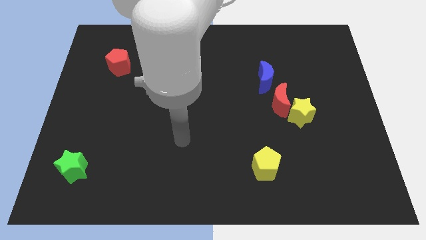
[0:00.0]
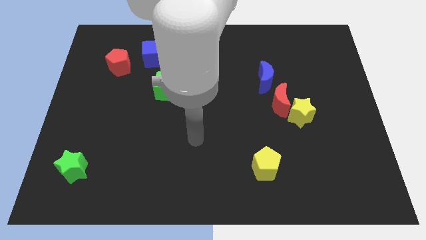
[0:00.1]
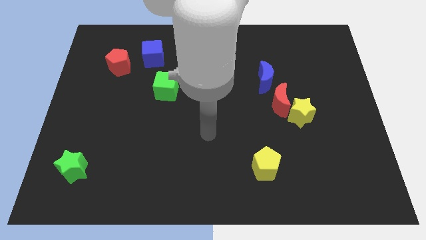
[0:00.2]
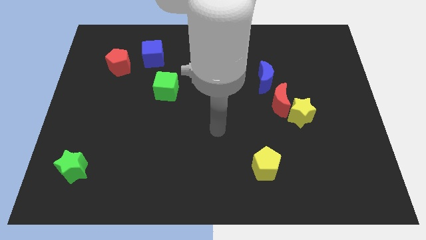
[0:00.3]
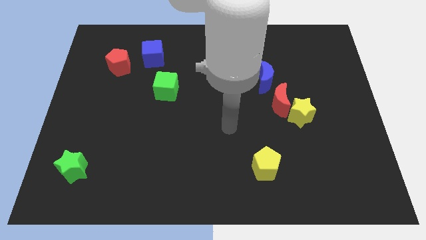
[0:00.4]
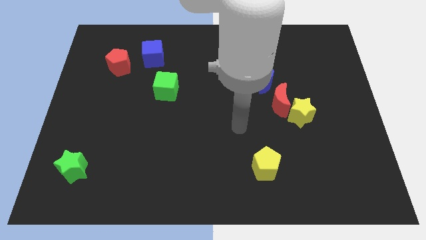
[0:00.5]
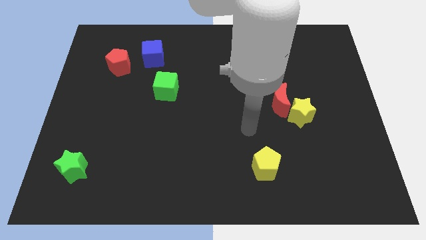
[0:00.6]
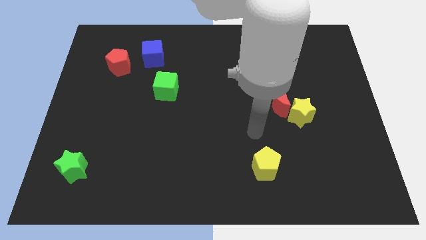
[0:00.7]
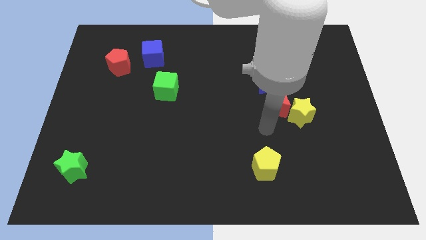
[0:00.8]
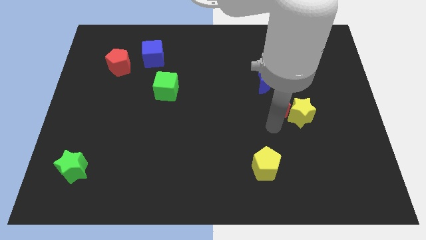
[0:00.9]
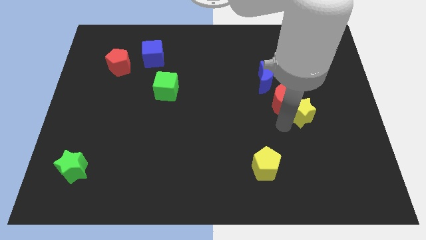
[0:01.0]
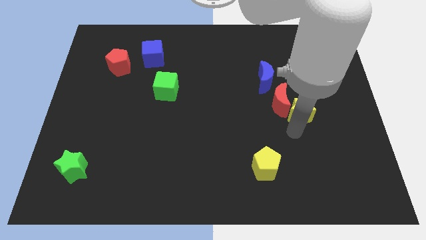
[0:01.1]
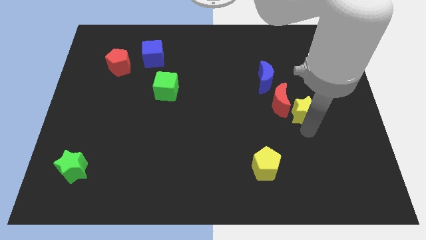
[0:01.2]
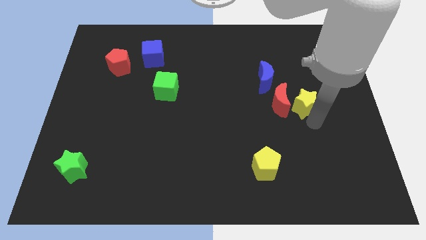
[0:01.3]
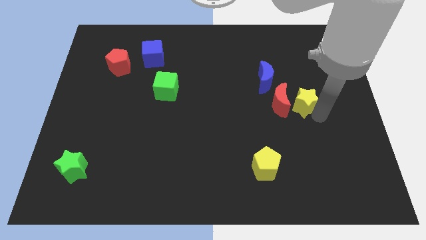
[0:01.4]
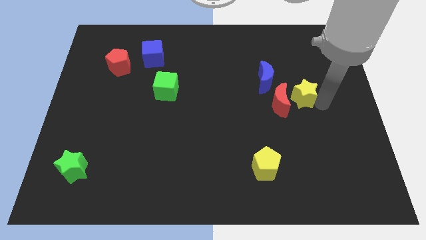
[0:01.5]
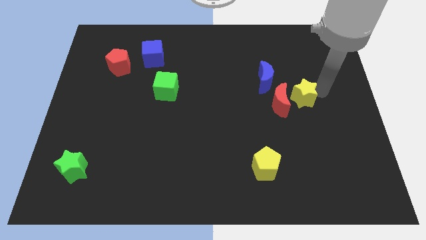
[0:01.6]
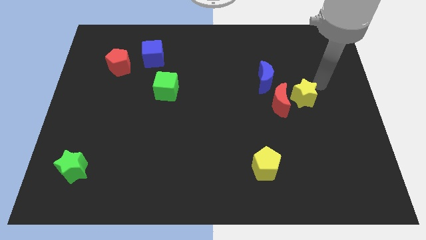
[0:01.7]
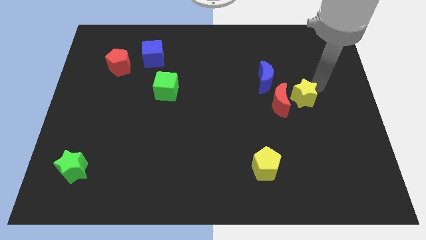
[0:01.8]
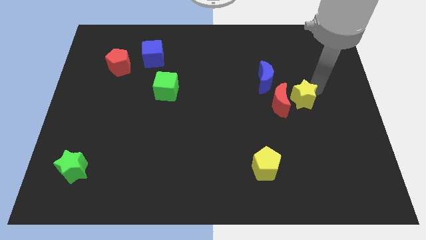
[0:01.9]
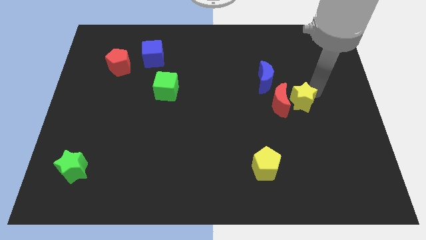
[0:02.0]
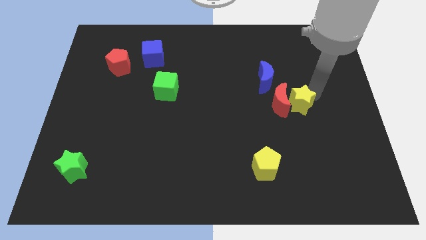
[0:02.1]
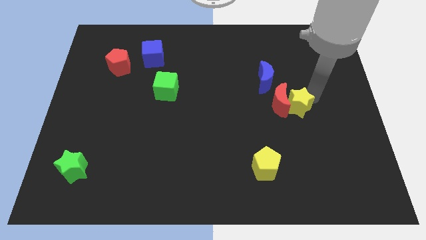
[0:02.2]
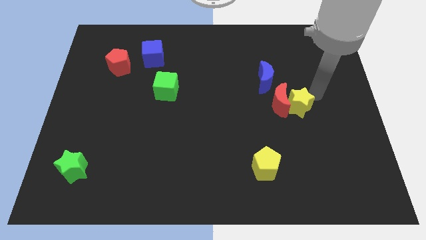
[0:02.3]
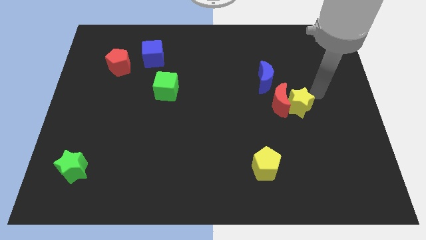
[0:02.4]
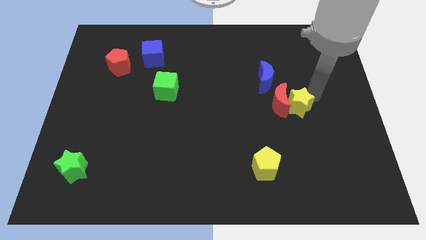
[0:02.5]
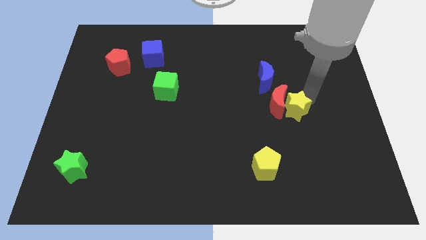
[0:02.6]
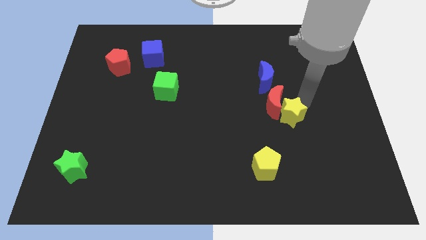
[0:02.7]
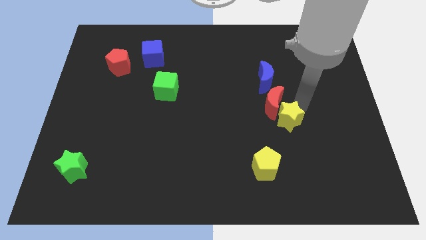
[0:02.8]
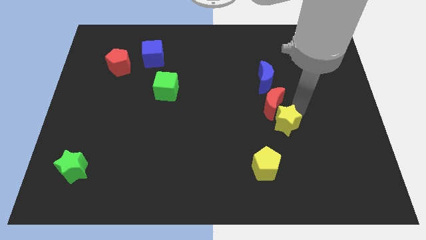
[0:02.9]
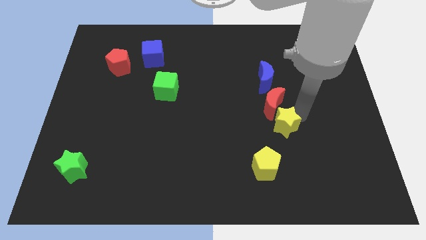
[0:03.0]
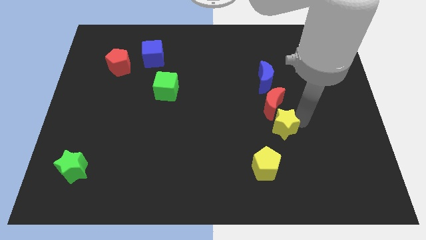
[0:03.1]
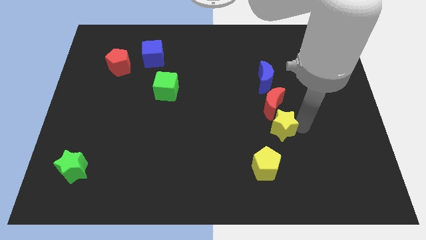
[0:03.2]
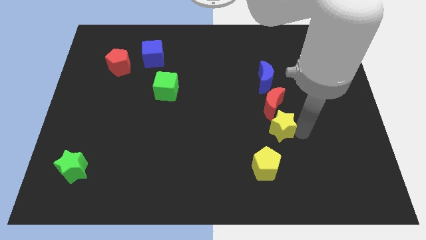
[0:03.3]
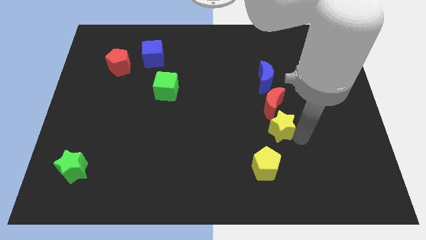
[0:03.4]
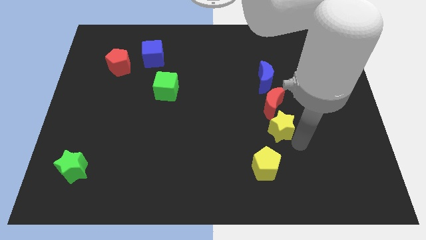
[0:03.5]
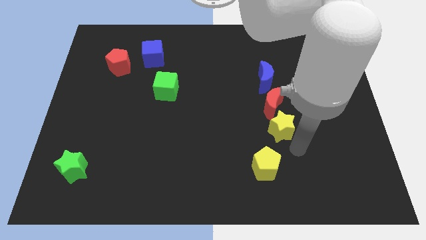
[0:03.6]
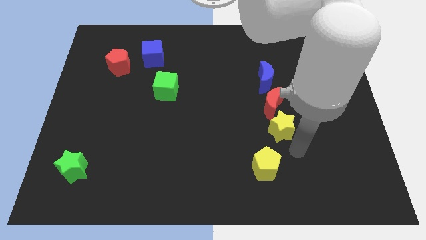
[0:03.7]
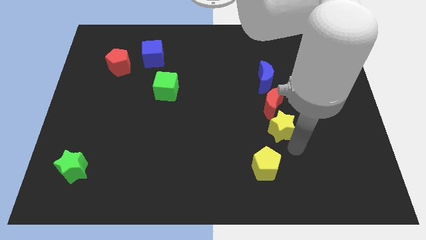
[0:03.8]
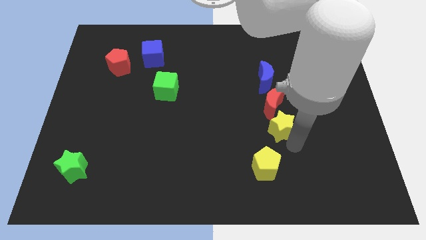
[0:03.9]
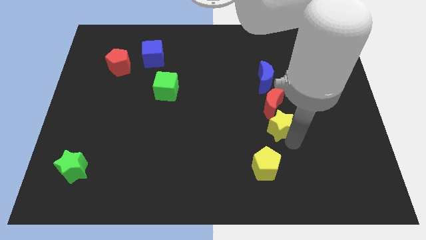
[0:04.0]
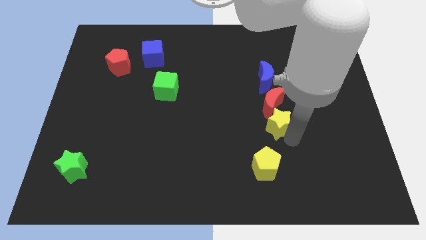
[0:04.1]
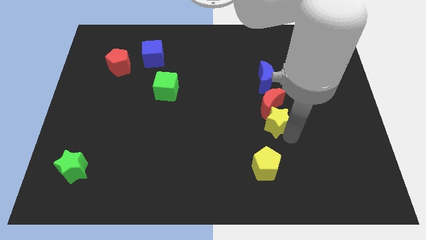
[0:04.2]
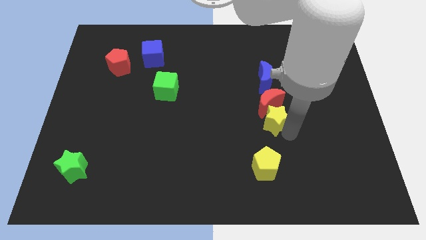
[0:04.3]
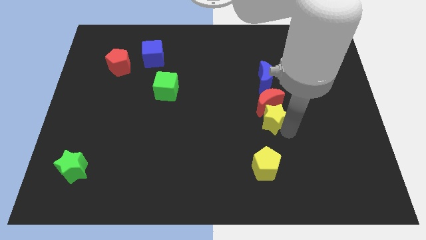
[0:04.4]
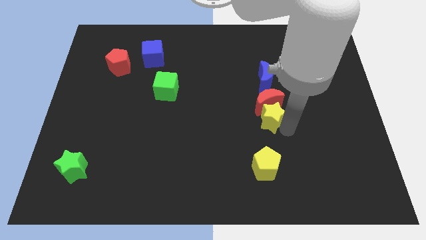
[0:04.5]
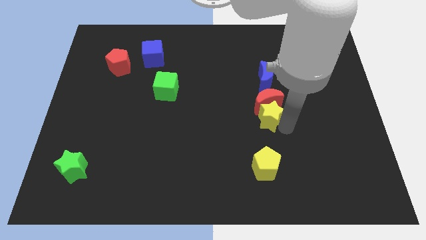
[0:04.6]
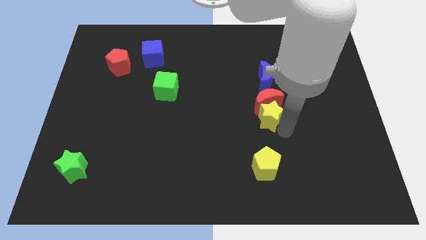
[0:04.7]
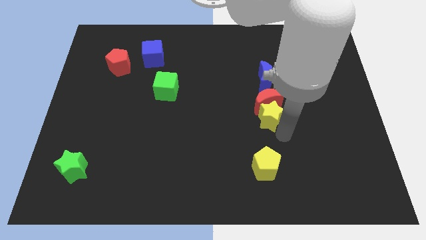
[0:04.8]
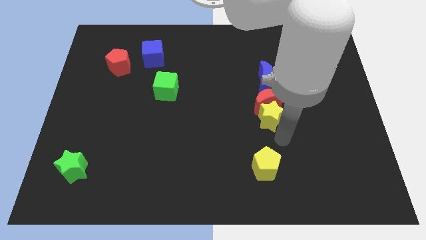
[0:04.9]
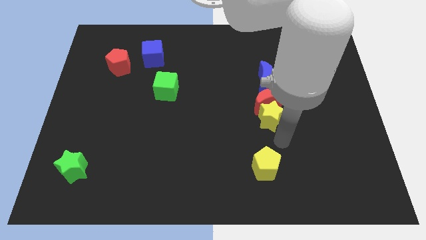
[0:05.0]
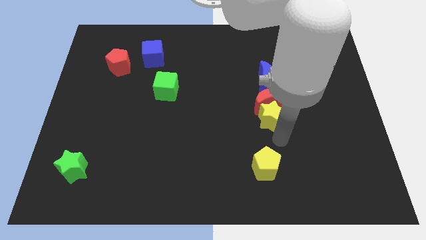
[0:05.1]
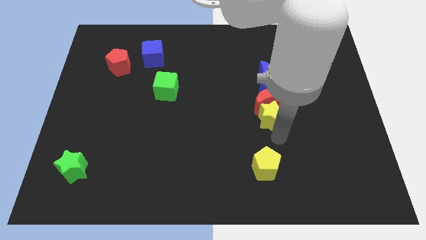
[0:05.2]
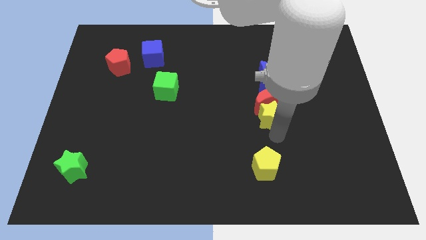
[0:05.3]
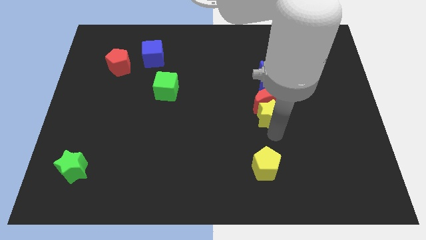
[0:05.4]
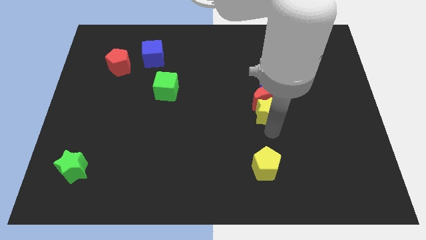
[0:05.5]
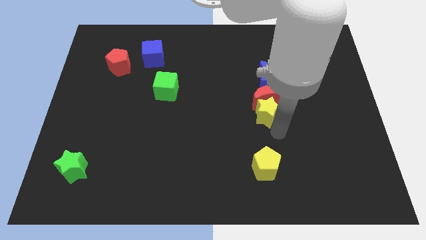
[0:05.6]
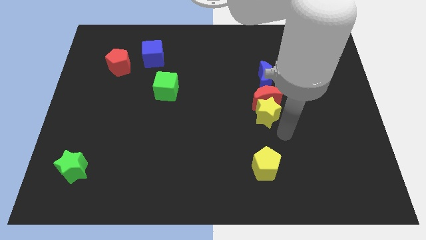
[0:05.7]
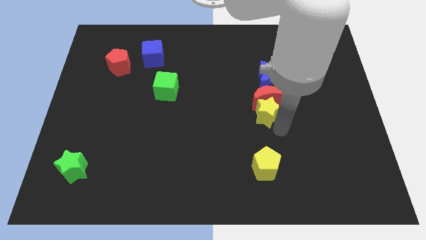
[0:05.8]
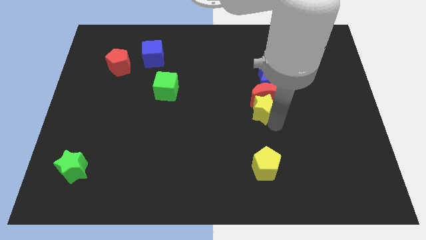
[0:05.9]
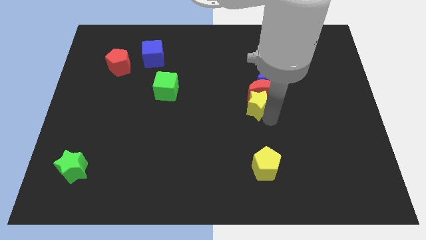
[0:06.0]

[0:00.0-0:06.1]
move the yellow star to the bottom left side of the blue moon
